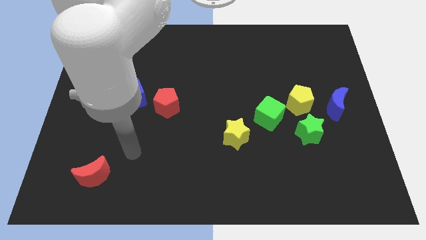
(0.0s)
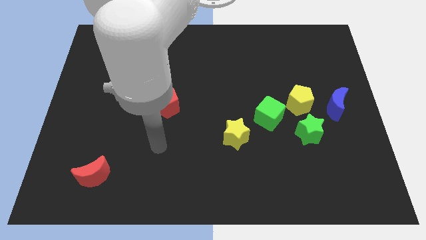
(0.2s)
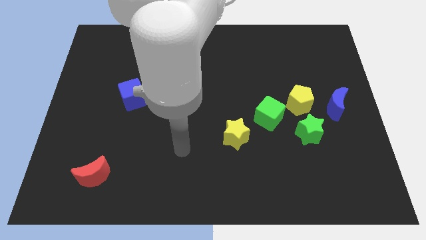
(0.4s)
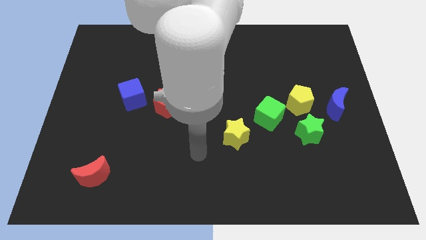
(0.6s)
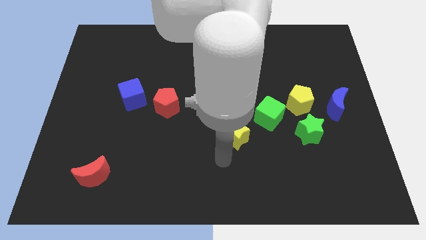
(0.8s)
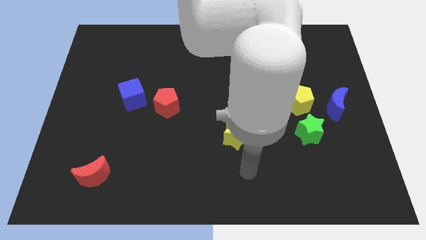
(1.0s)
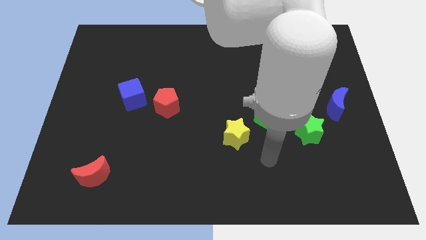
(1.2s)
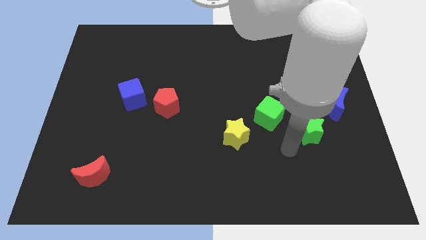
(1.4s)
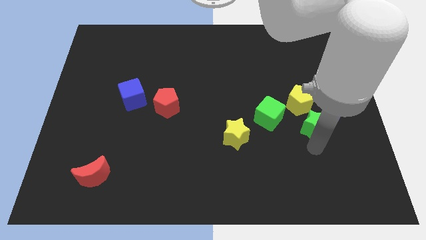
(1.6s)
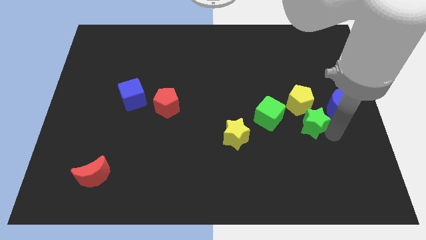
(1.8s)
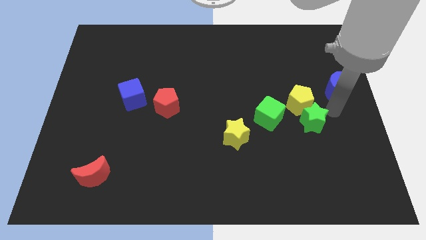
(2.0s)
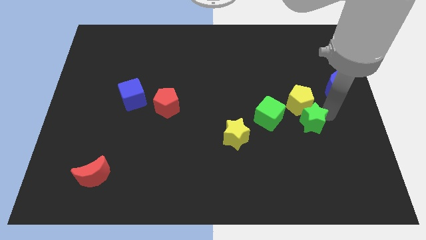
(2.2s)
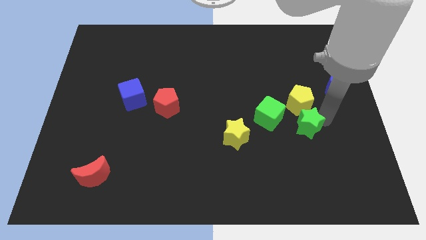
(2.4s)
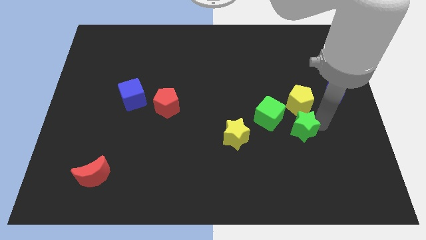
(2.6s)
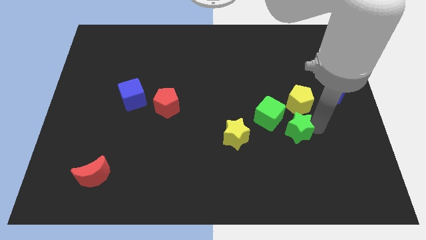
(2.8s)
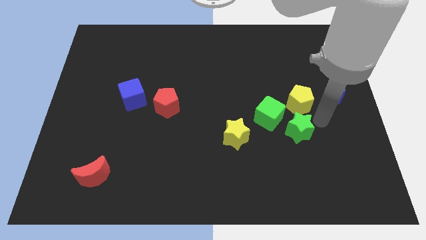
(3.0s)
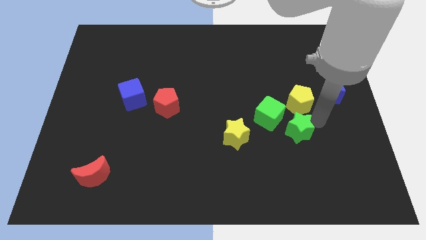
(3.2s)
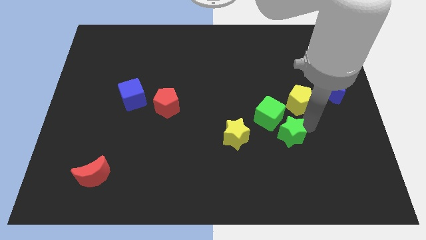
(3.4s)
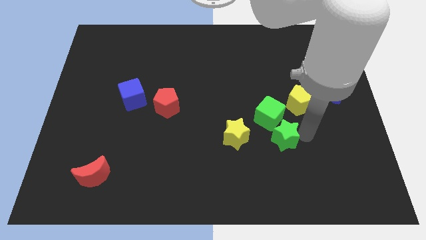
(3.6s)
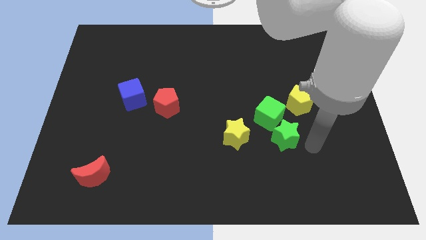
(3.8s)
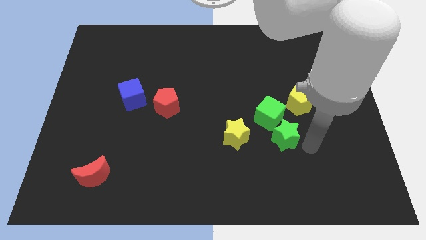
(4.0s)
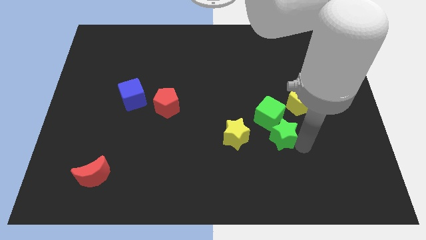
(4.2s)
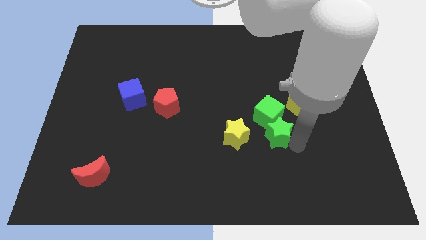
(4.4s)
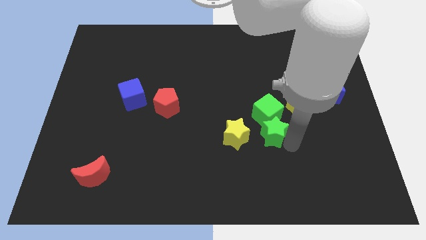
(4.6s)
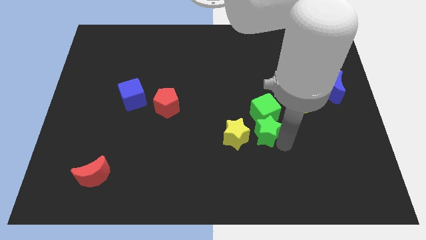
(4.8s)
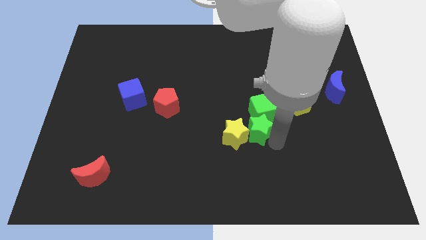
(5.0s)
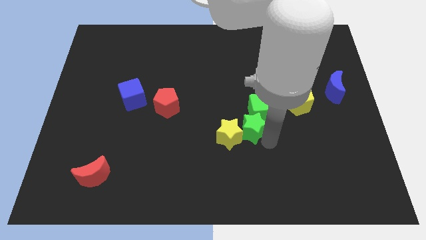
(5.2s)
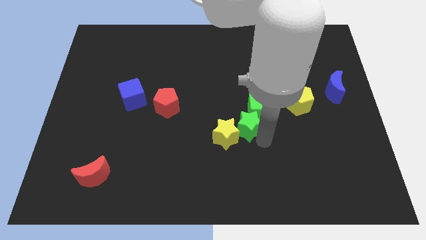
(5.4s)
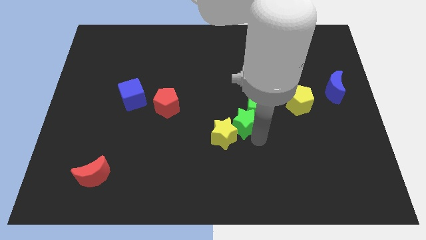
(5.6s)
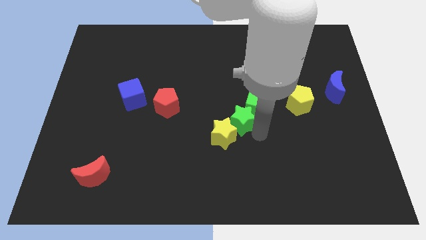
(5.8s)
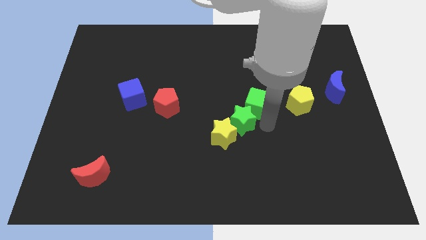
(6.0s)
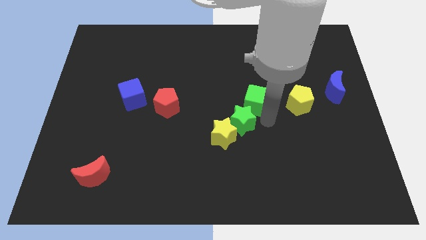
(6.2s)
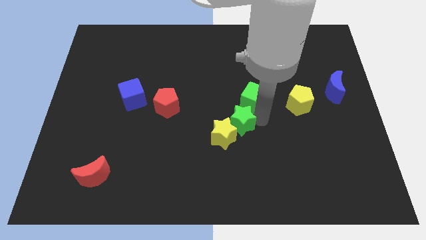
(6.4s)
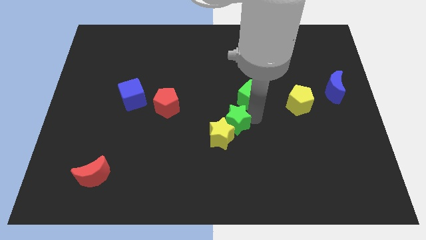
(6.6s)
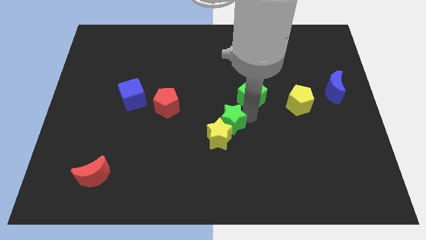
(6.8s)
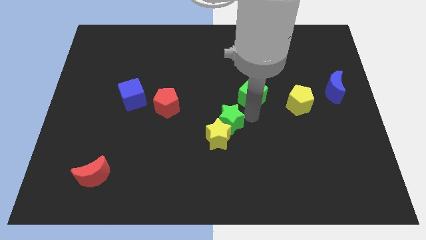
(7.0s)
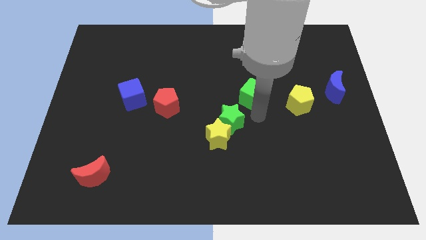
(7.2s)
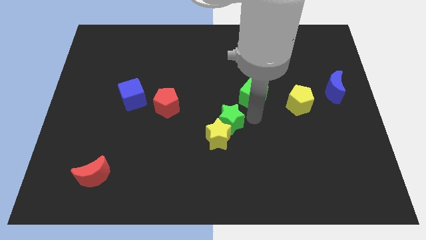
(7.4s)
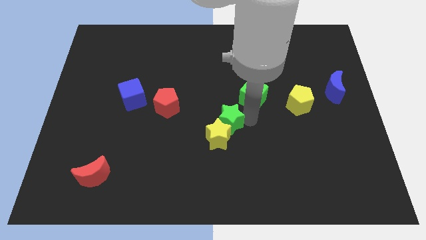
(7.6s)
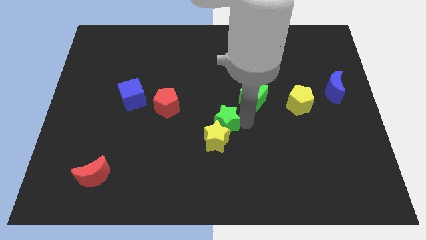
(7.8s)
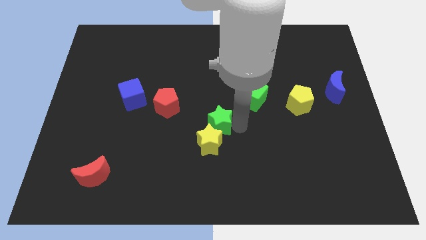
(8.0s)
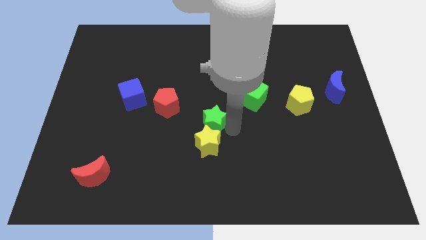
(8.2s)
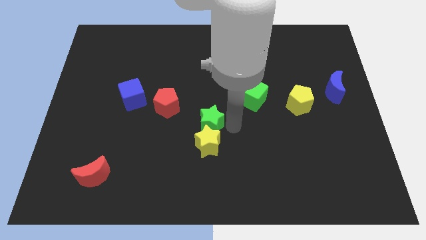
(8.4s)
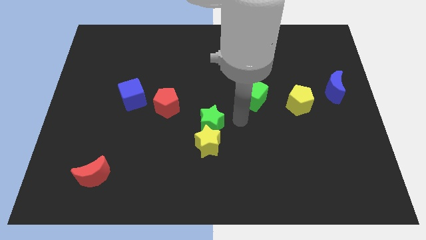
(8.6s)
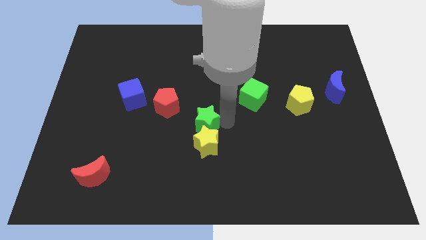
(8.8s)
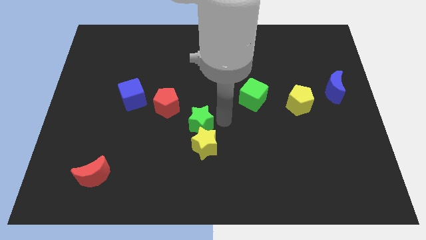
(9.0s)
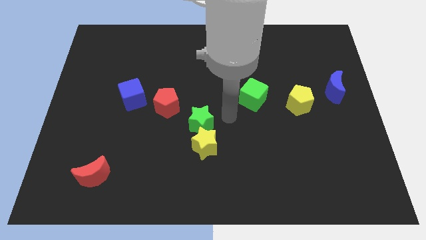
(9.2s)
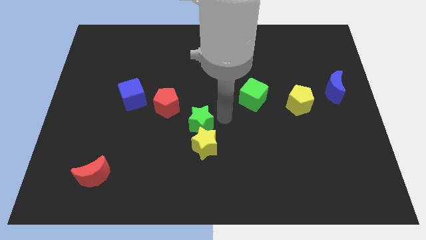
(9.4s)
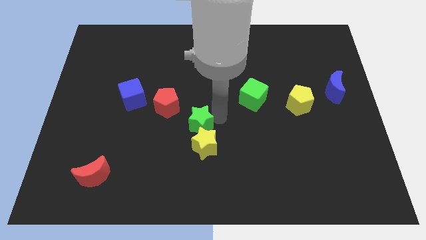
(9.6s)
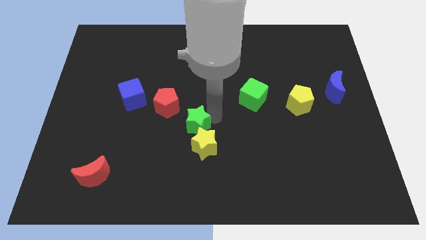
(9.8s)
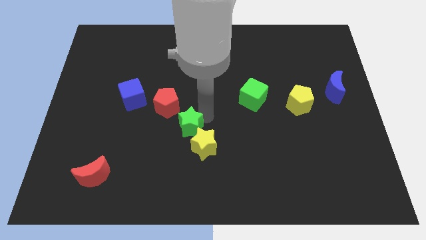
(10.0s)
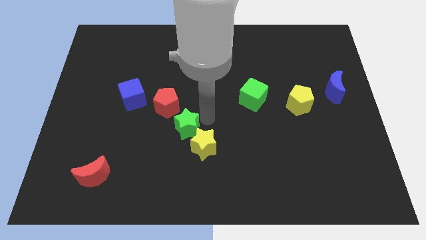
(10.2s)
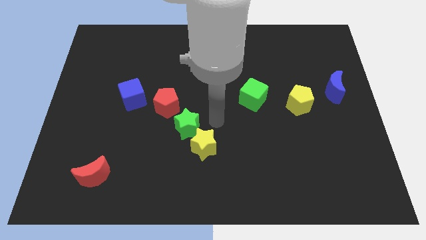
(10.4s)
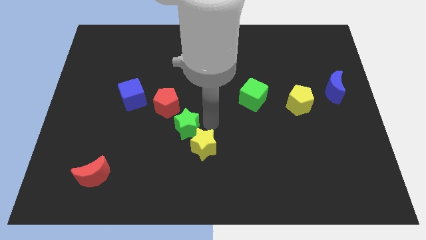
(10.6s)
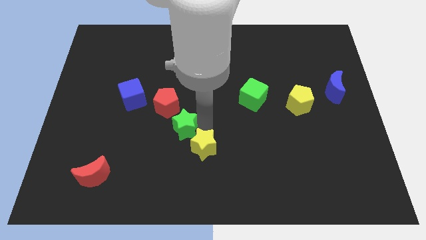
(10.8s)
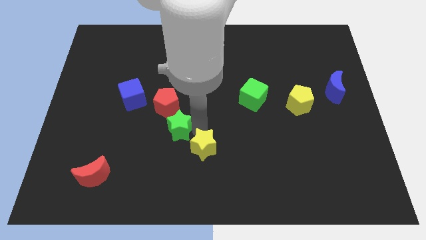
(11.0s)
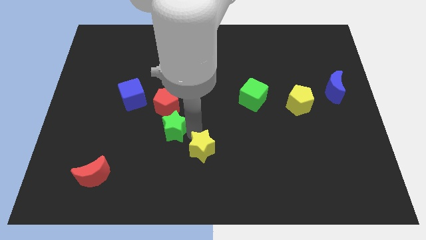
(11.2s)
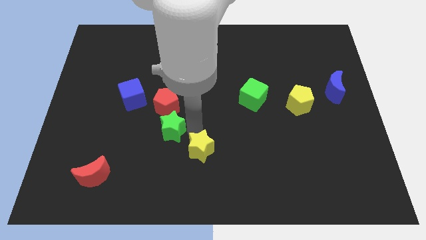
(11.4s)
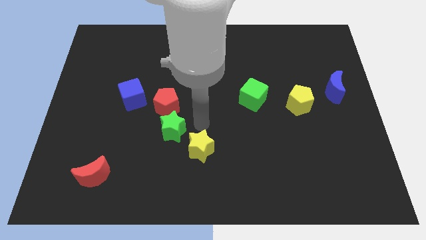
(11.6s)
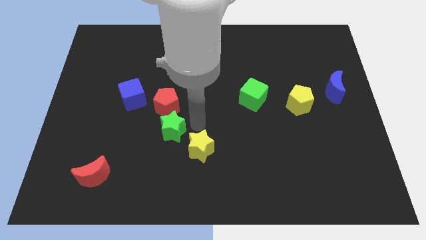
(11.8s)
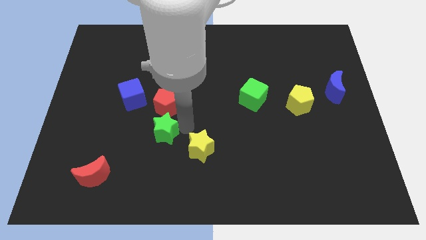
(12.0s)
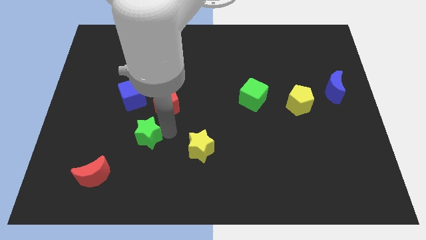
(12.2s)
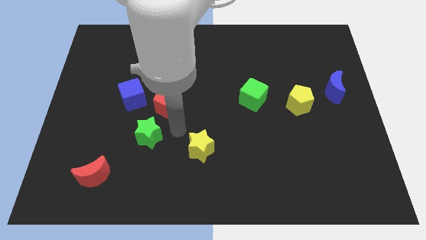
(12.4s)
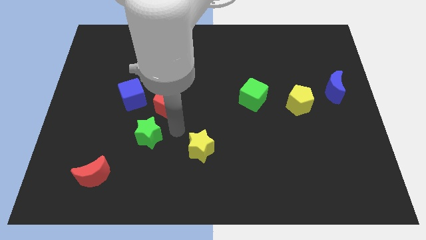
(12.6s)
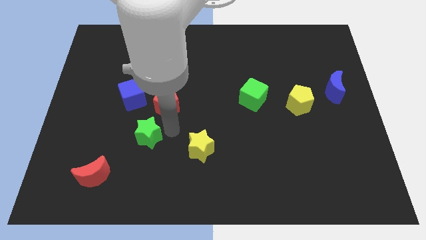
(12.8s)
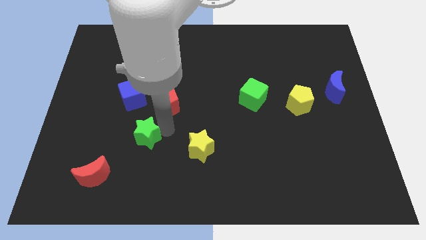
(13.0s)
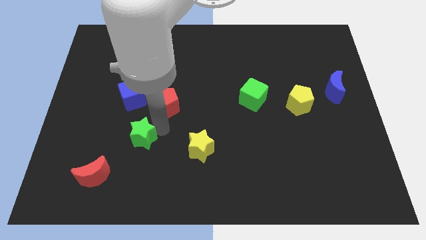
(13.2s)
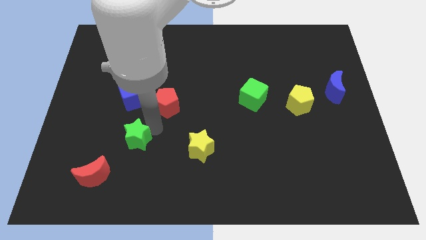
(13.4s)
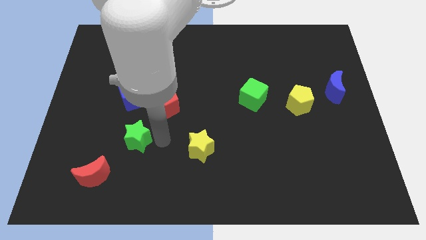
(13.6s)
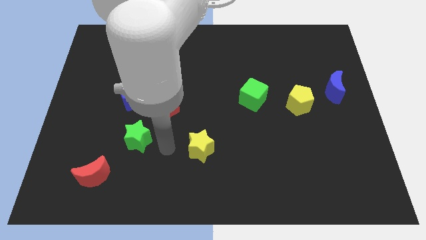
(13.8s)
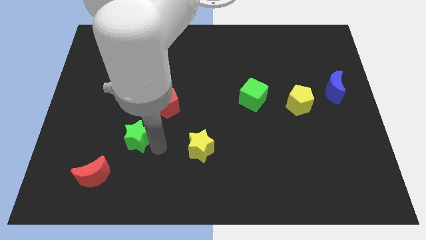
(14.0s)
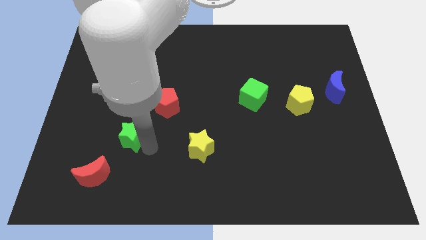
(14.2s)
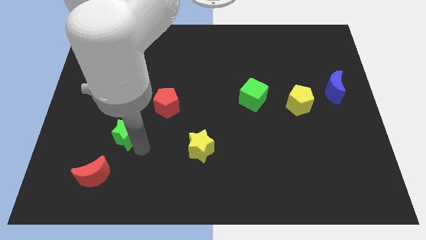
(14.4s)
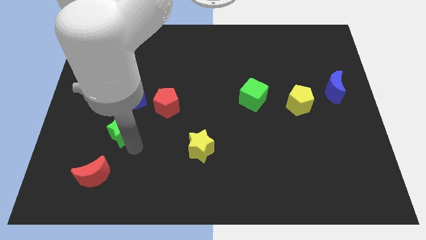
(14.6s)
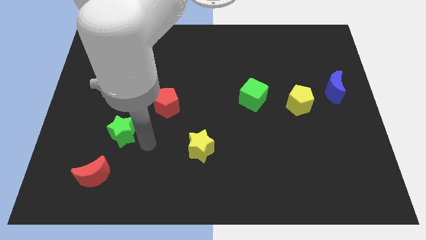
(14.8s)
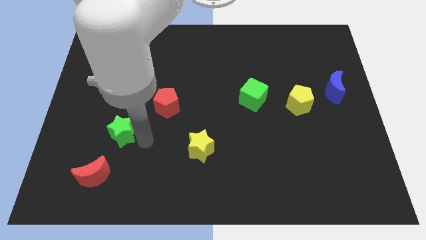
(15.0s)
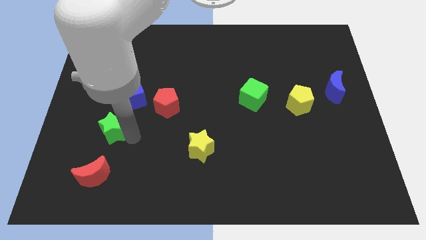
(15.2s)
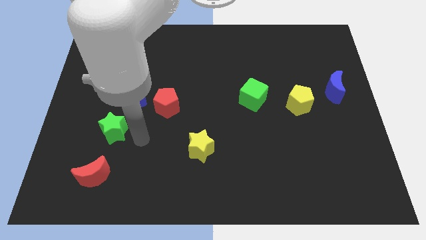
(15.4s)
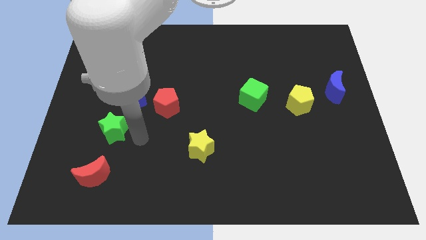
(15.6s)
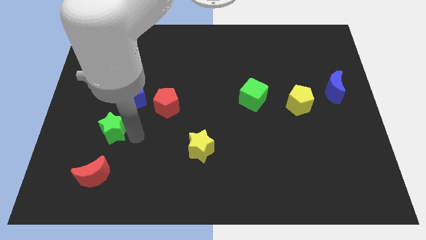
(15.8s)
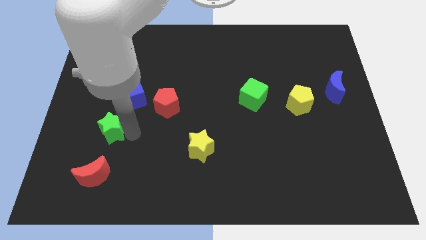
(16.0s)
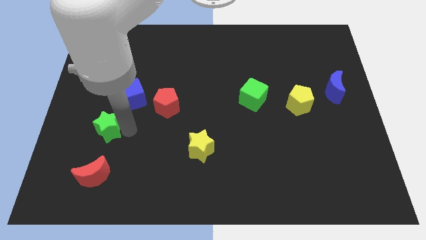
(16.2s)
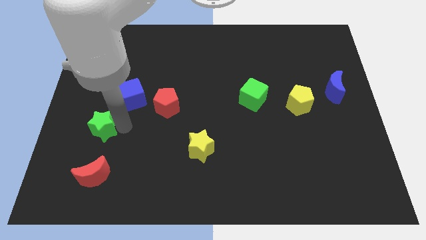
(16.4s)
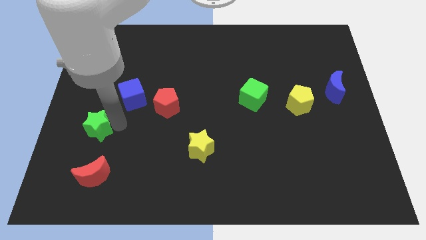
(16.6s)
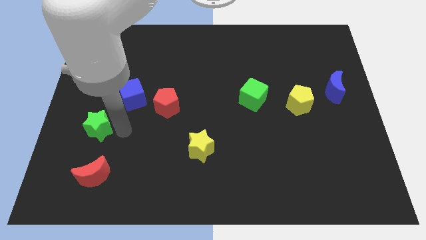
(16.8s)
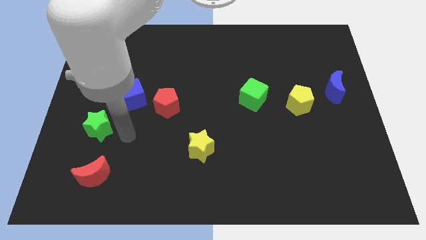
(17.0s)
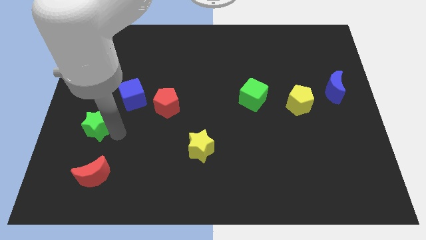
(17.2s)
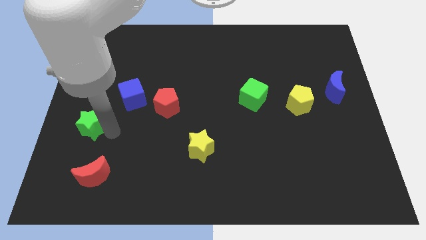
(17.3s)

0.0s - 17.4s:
move the green star to the left side
